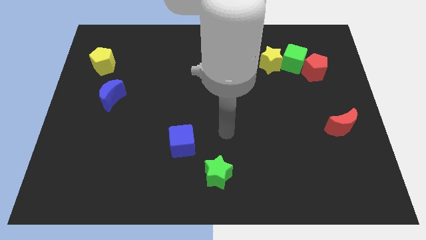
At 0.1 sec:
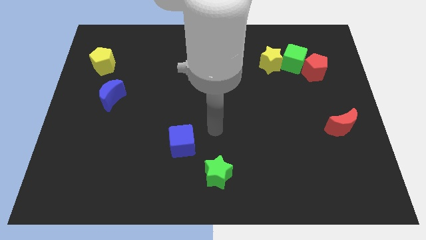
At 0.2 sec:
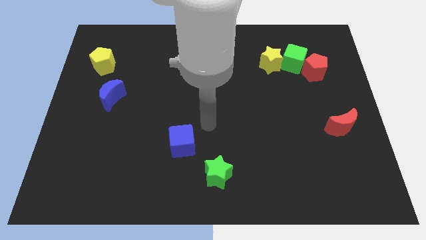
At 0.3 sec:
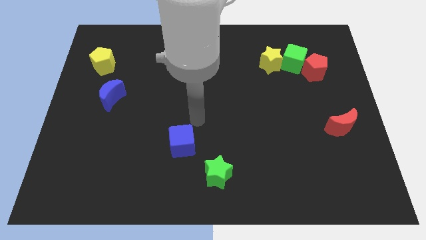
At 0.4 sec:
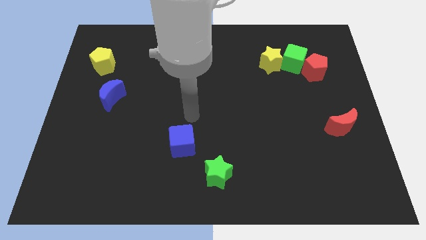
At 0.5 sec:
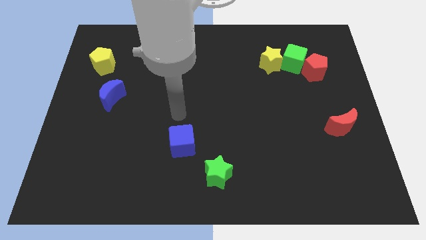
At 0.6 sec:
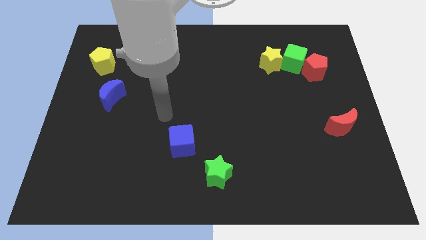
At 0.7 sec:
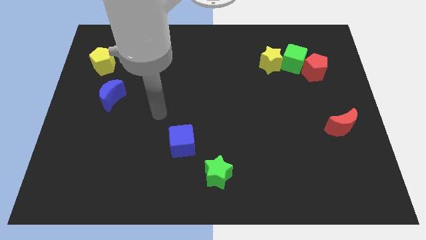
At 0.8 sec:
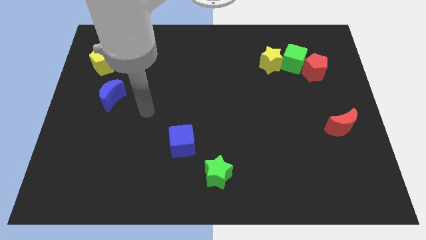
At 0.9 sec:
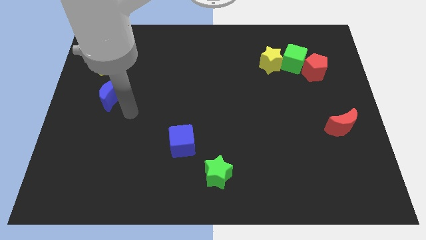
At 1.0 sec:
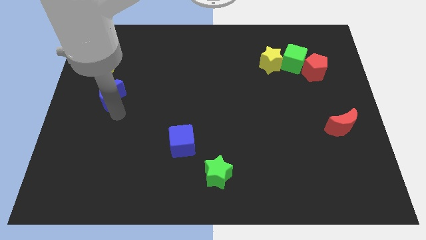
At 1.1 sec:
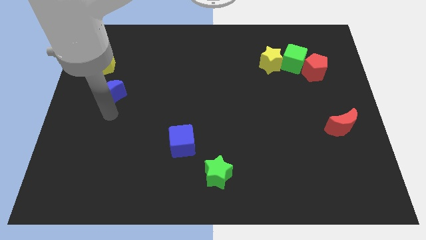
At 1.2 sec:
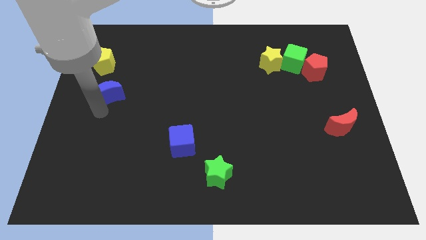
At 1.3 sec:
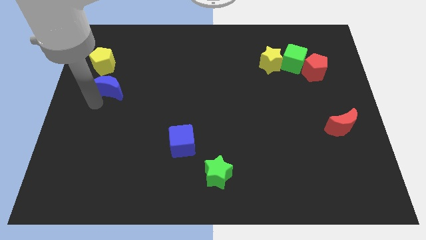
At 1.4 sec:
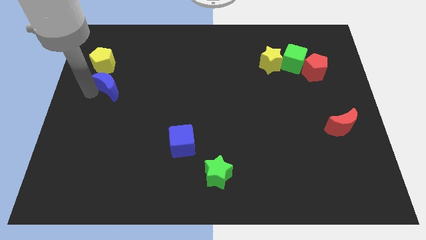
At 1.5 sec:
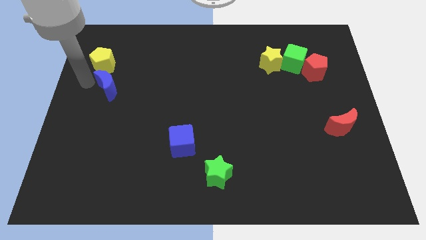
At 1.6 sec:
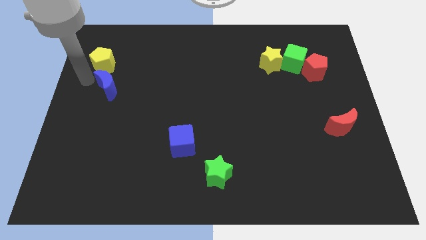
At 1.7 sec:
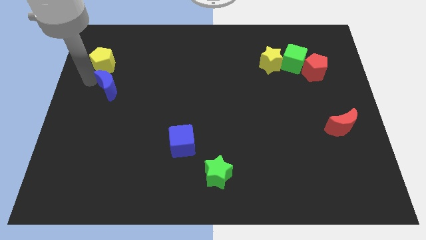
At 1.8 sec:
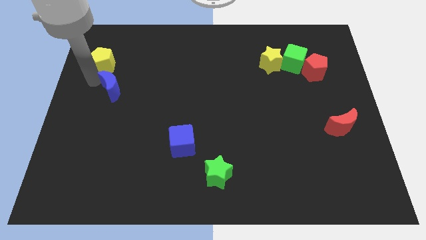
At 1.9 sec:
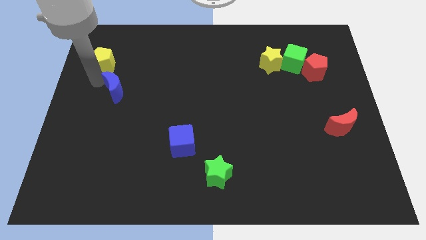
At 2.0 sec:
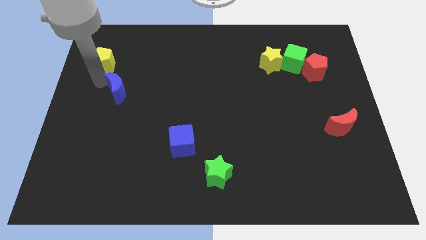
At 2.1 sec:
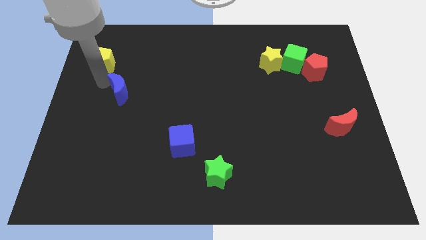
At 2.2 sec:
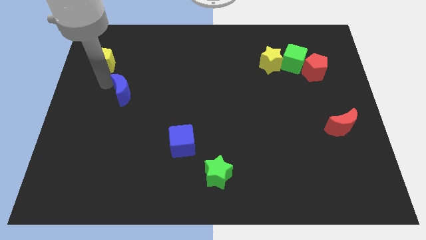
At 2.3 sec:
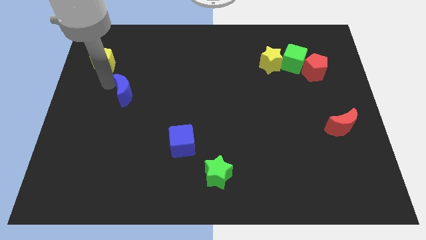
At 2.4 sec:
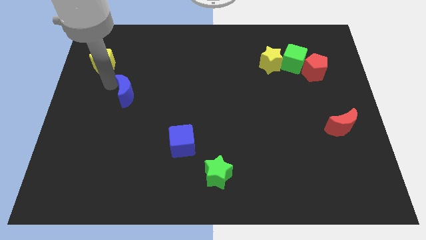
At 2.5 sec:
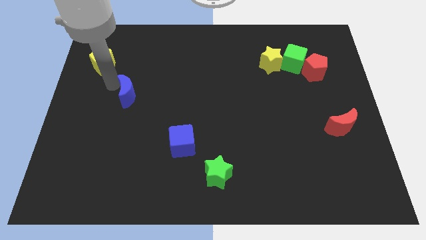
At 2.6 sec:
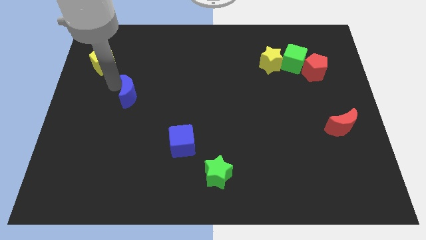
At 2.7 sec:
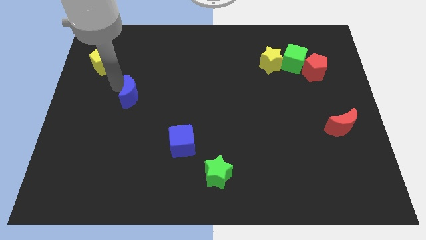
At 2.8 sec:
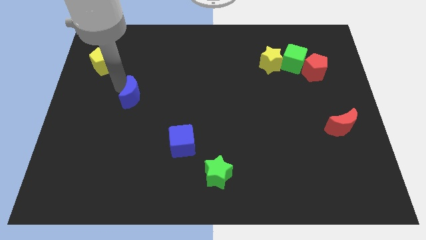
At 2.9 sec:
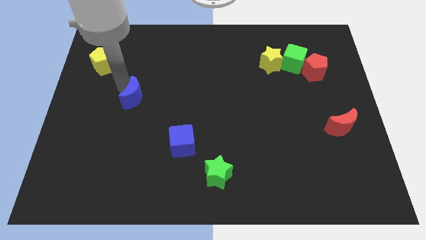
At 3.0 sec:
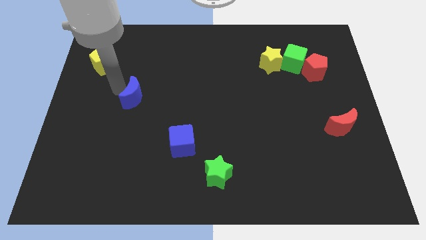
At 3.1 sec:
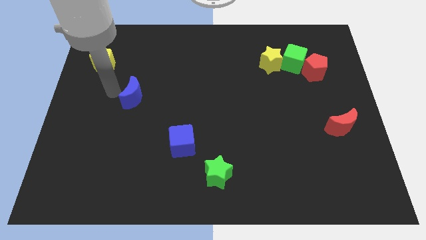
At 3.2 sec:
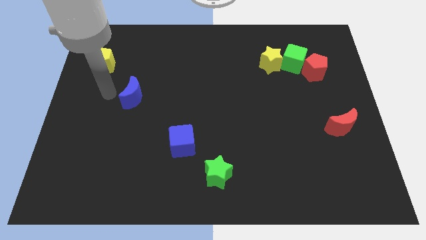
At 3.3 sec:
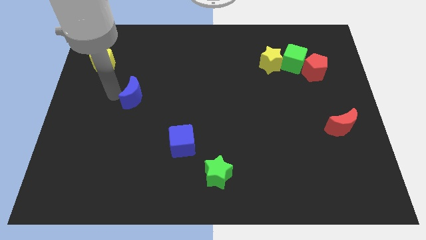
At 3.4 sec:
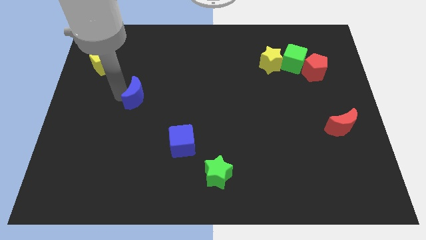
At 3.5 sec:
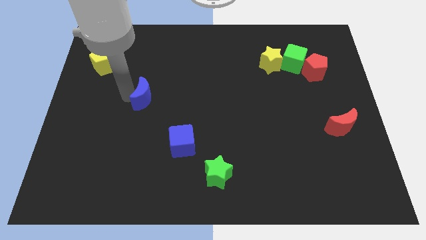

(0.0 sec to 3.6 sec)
slide the blue moon slightly right

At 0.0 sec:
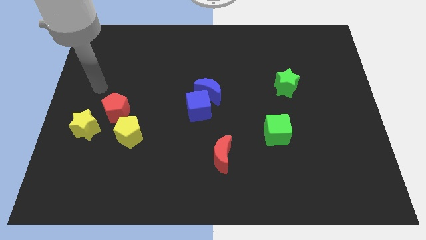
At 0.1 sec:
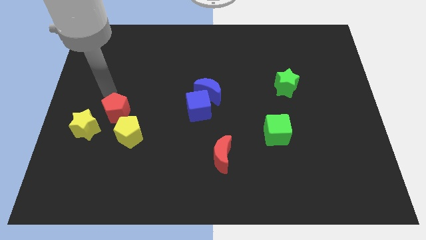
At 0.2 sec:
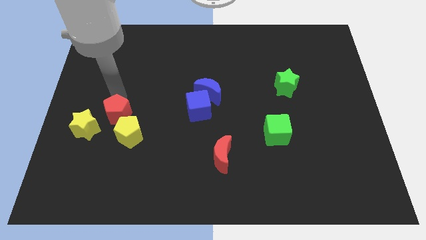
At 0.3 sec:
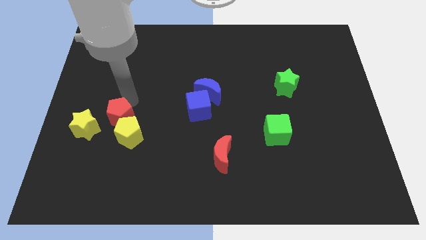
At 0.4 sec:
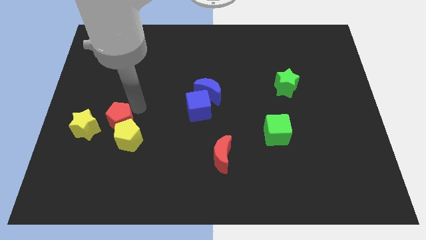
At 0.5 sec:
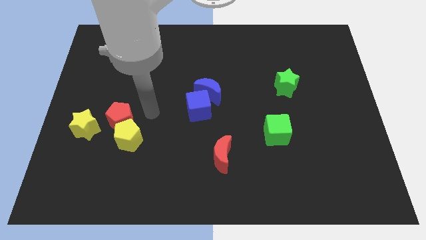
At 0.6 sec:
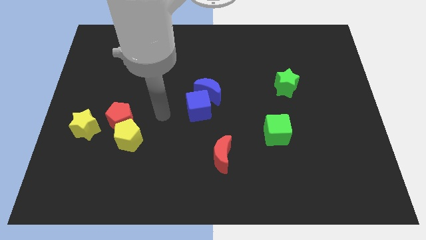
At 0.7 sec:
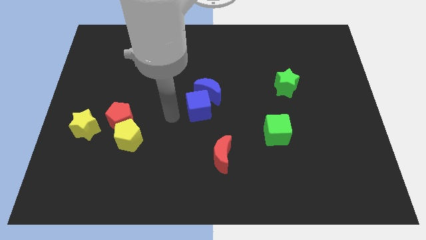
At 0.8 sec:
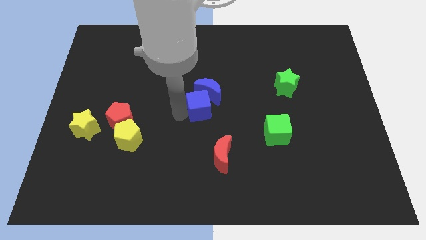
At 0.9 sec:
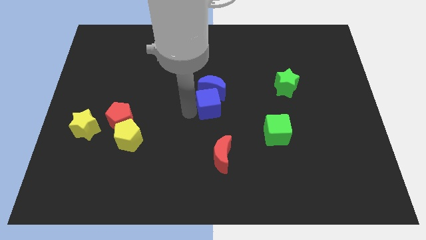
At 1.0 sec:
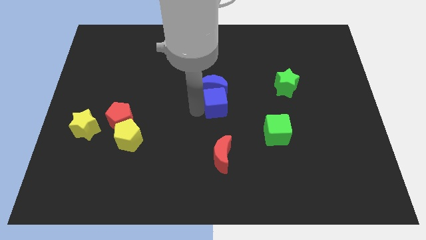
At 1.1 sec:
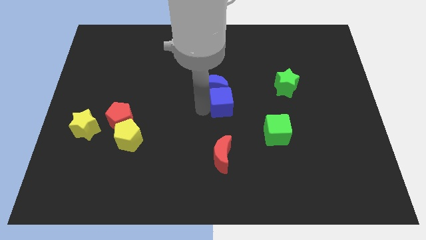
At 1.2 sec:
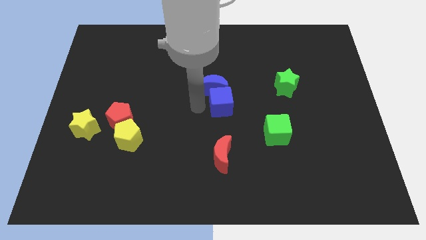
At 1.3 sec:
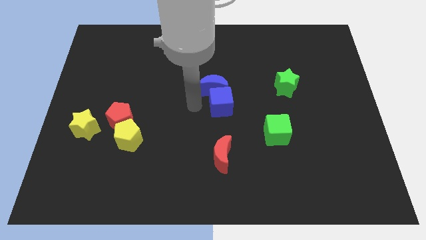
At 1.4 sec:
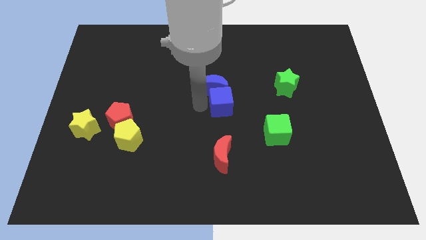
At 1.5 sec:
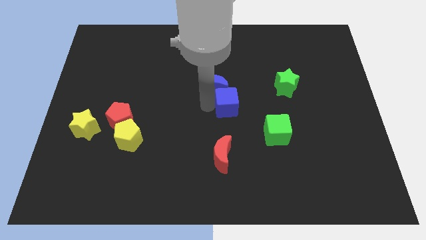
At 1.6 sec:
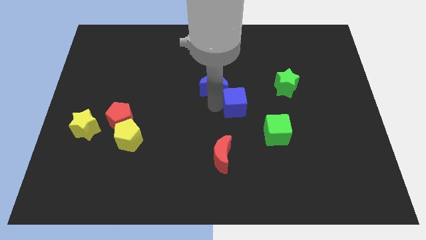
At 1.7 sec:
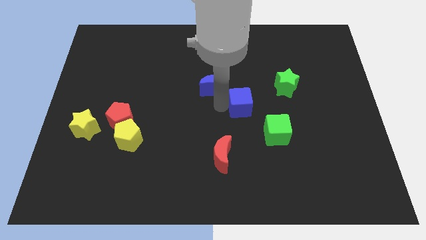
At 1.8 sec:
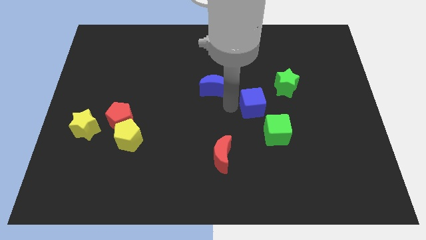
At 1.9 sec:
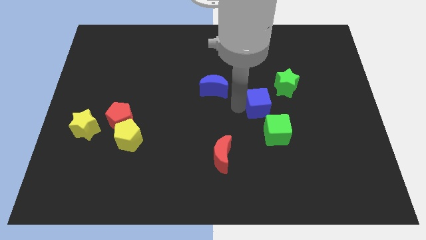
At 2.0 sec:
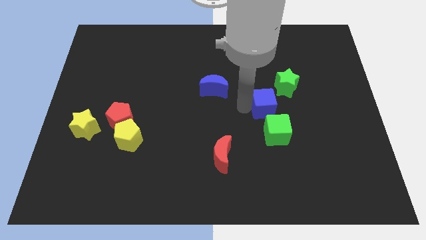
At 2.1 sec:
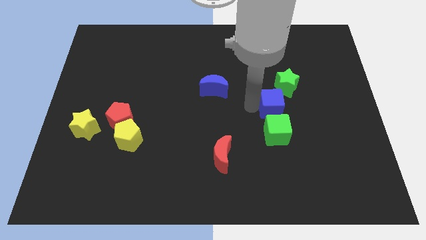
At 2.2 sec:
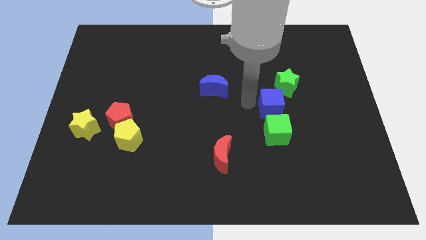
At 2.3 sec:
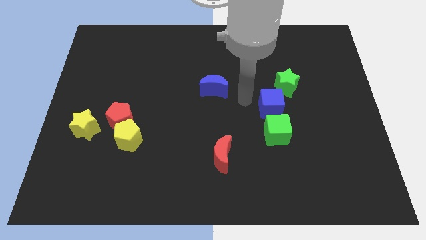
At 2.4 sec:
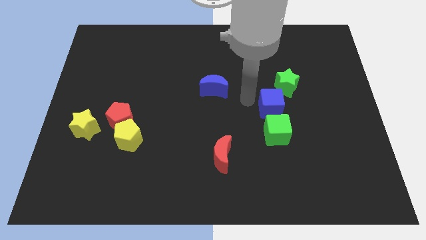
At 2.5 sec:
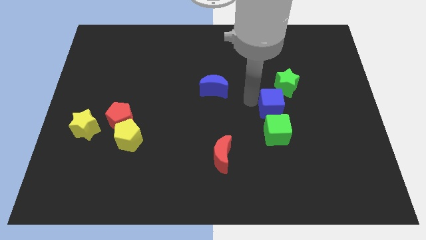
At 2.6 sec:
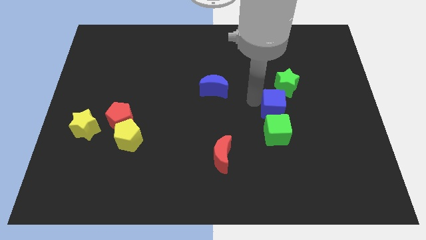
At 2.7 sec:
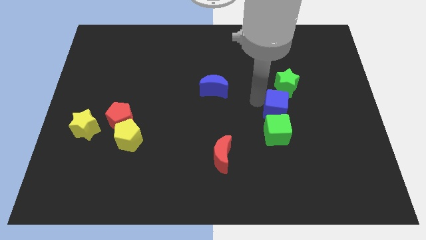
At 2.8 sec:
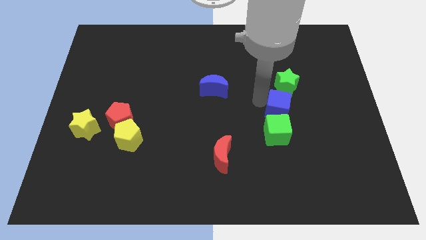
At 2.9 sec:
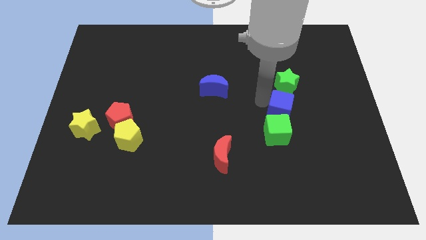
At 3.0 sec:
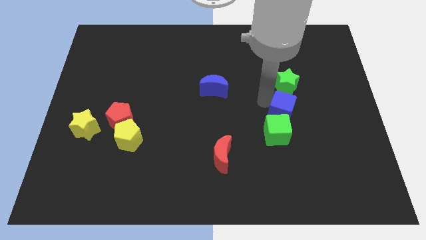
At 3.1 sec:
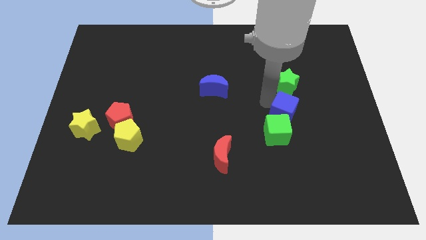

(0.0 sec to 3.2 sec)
push the blue cube to the right

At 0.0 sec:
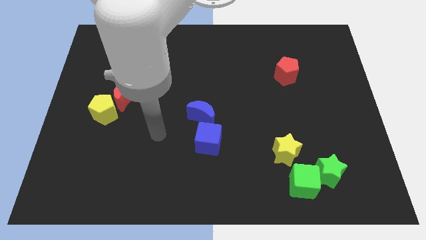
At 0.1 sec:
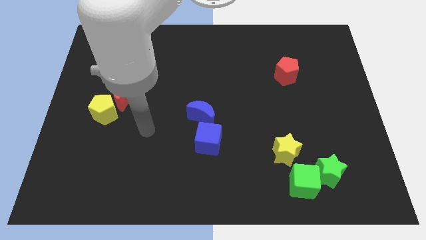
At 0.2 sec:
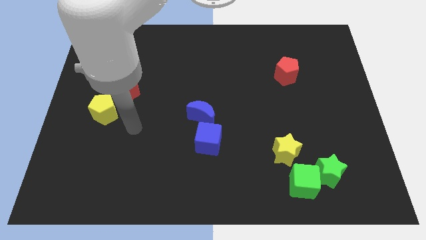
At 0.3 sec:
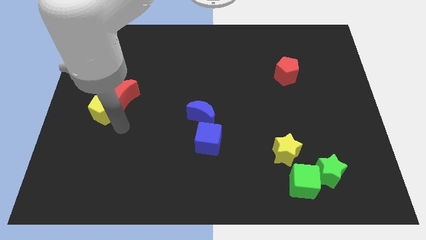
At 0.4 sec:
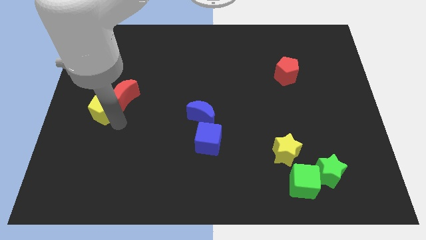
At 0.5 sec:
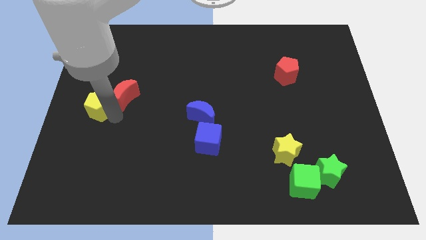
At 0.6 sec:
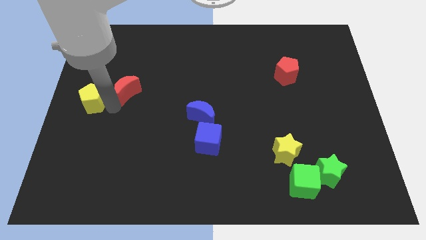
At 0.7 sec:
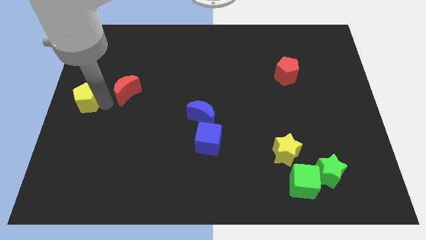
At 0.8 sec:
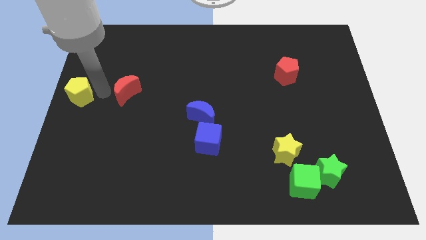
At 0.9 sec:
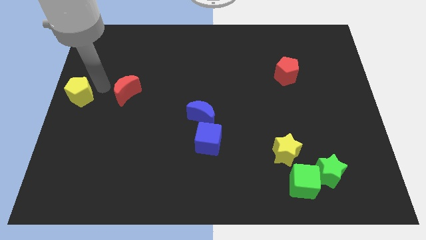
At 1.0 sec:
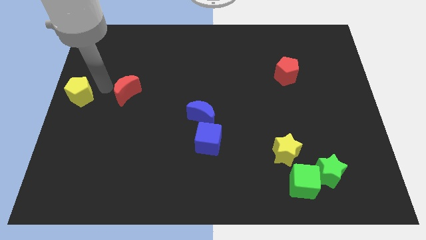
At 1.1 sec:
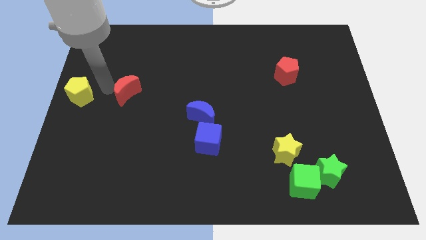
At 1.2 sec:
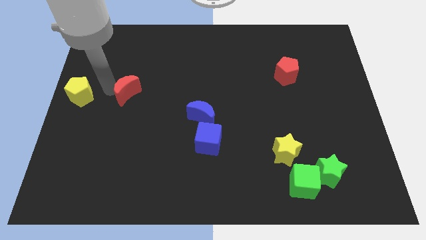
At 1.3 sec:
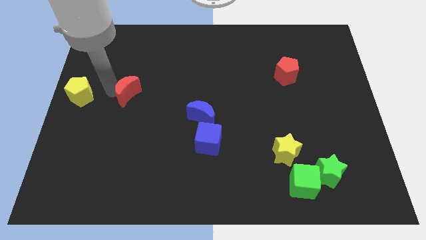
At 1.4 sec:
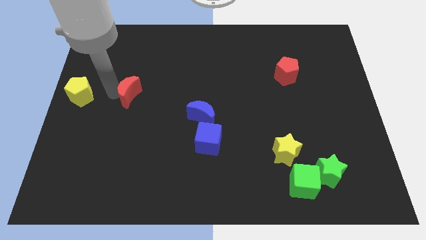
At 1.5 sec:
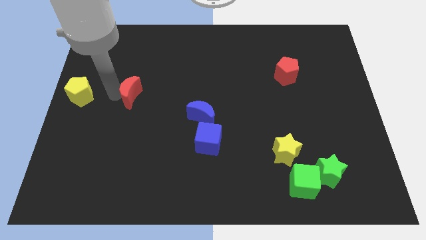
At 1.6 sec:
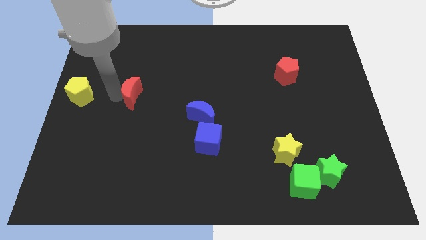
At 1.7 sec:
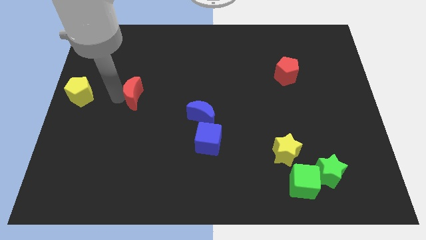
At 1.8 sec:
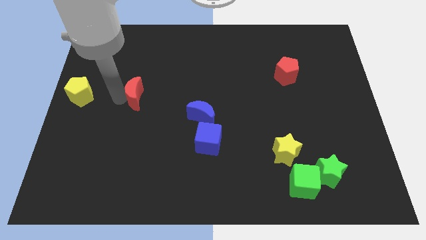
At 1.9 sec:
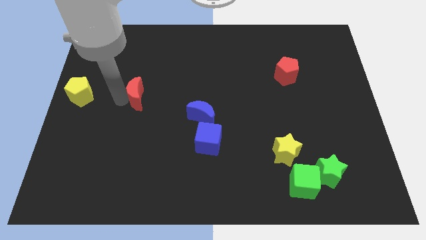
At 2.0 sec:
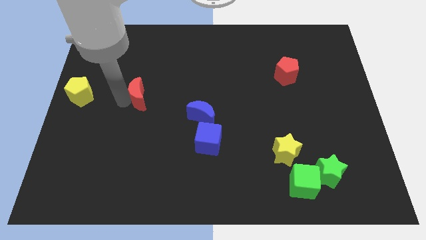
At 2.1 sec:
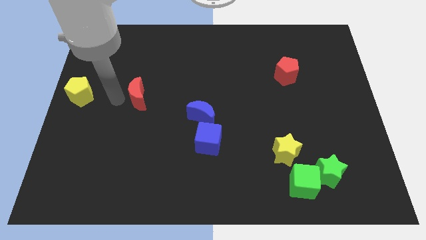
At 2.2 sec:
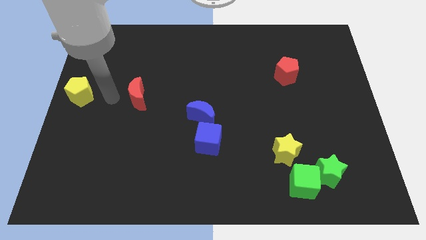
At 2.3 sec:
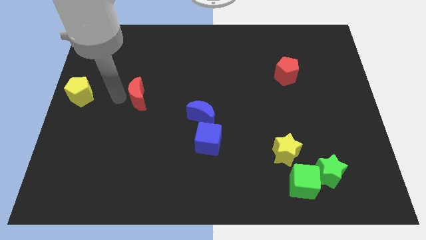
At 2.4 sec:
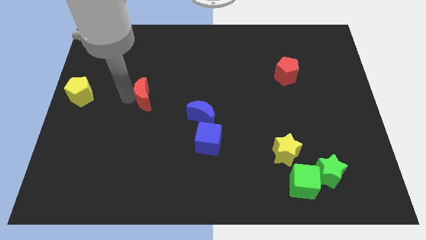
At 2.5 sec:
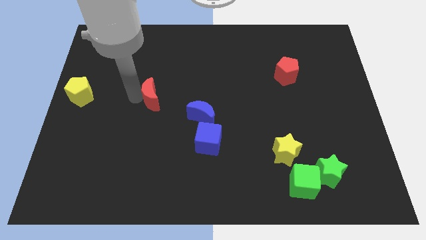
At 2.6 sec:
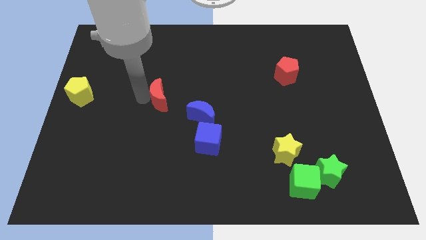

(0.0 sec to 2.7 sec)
slightly push the red moon right
